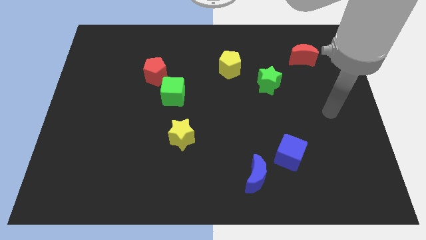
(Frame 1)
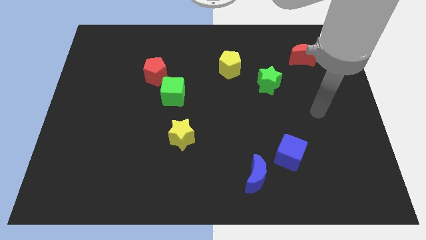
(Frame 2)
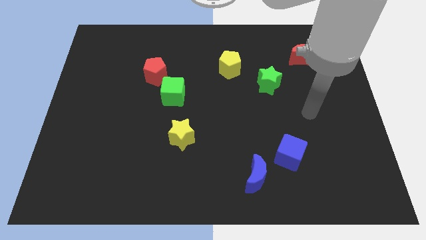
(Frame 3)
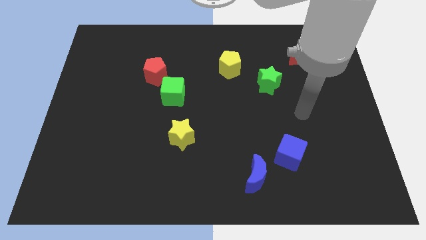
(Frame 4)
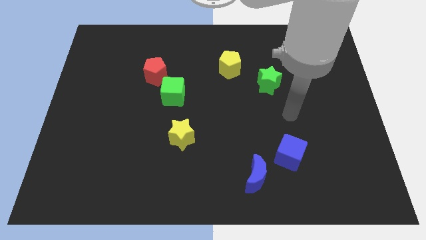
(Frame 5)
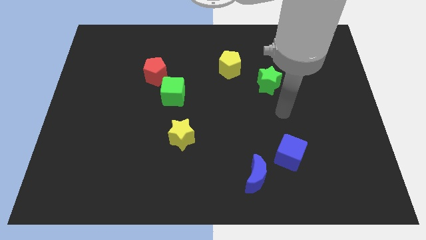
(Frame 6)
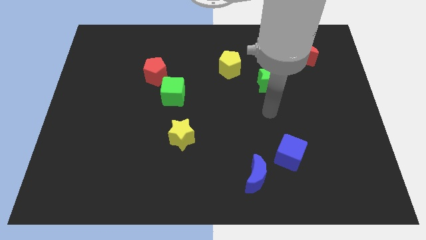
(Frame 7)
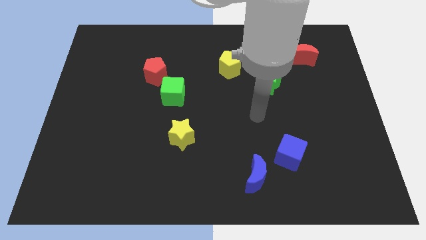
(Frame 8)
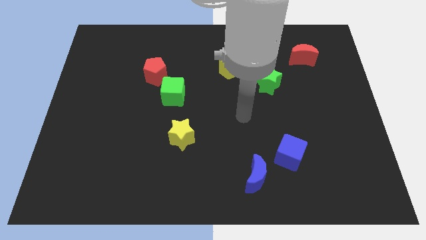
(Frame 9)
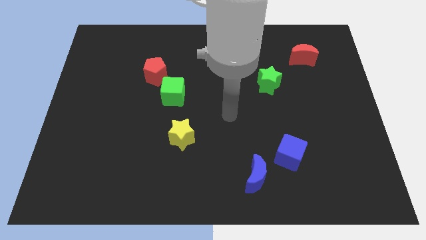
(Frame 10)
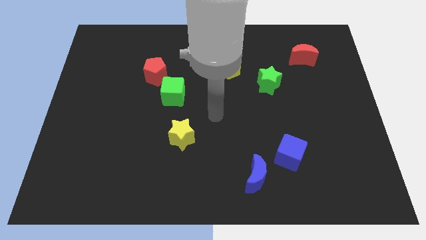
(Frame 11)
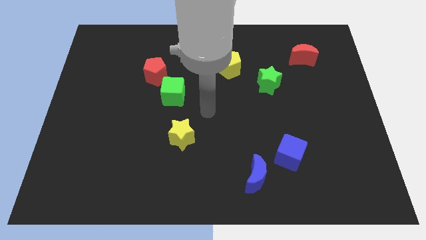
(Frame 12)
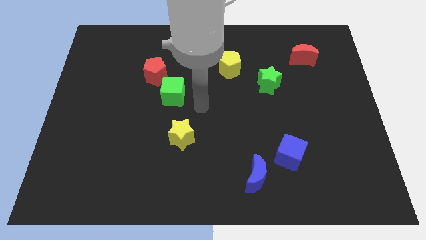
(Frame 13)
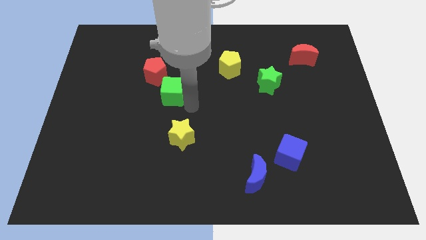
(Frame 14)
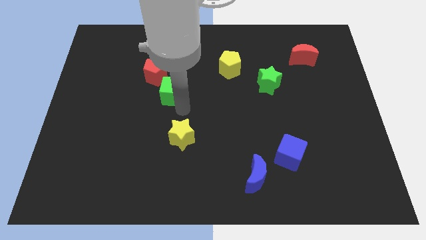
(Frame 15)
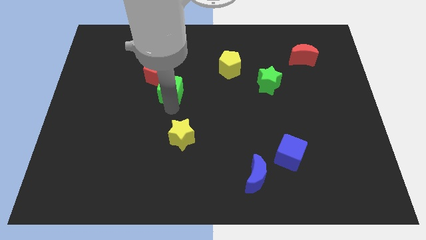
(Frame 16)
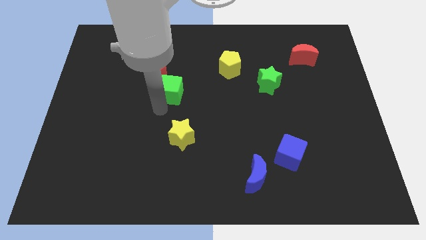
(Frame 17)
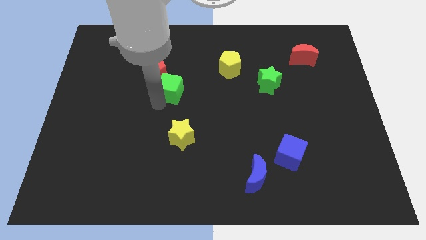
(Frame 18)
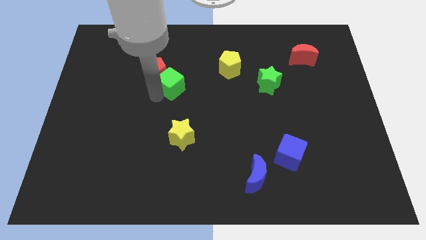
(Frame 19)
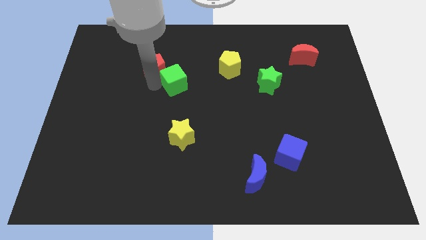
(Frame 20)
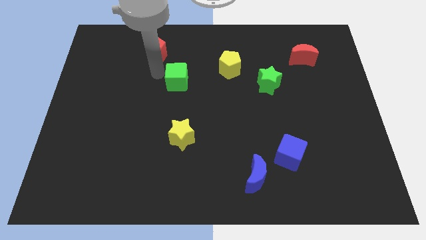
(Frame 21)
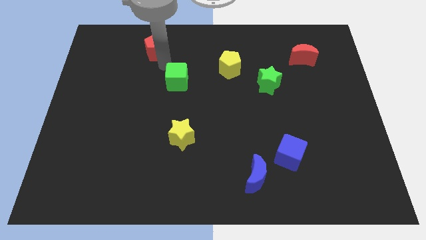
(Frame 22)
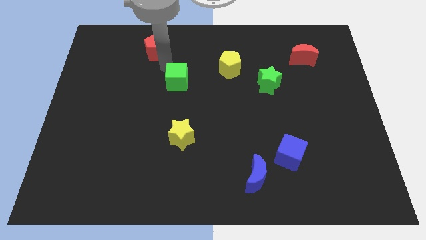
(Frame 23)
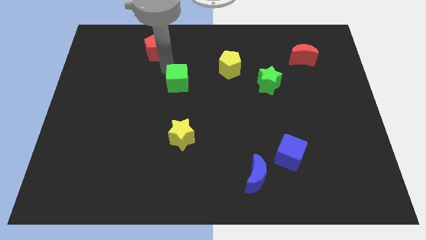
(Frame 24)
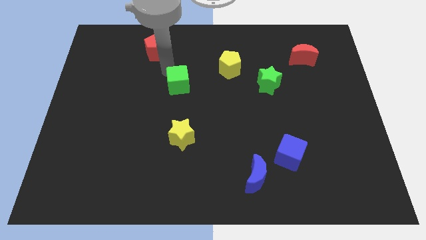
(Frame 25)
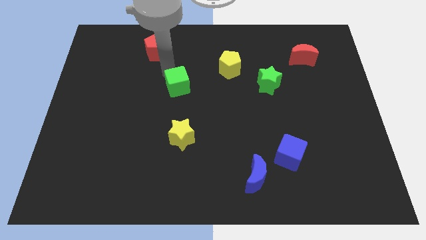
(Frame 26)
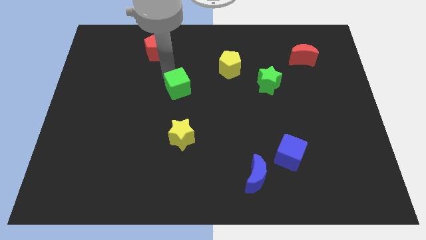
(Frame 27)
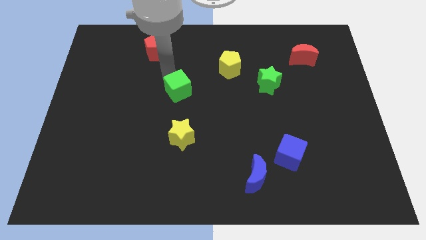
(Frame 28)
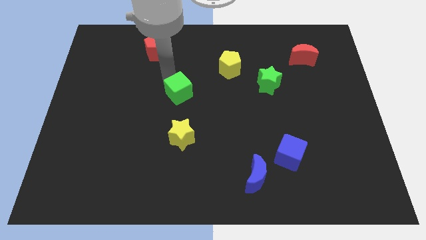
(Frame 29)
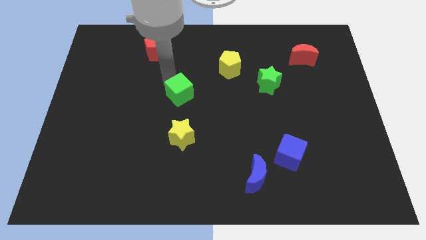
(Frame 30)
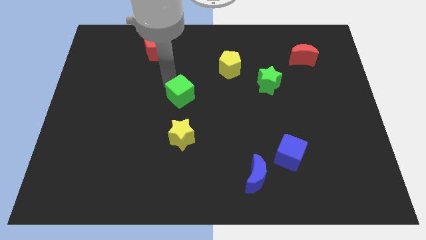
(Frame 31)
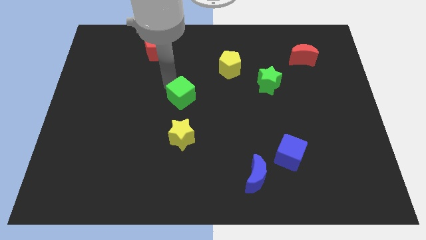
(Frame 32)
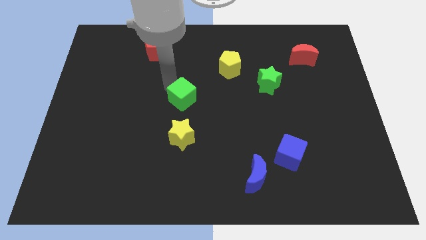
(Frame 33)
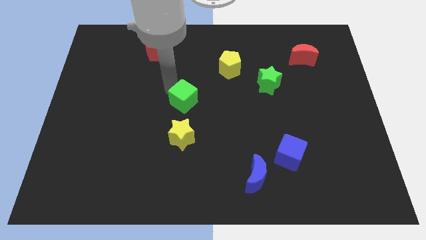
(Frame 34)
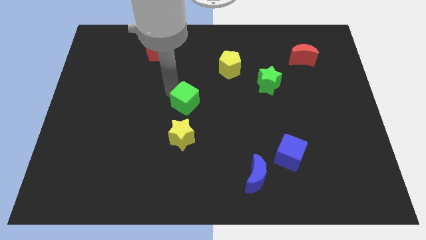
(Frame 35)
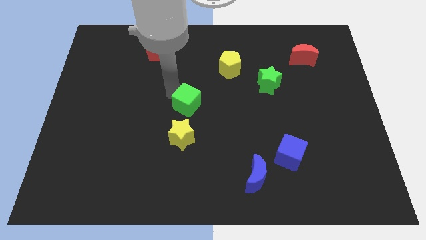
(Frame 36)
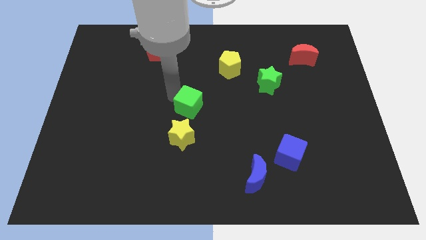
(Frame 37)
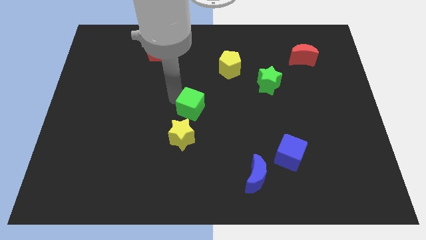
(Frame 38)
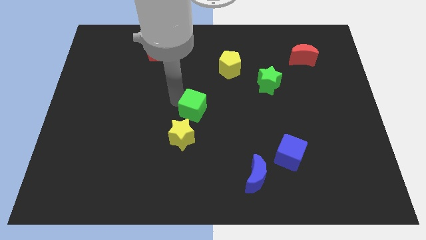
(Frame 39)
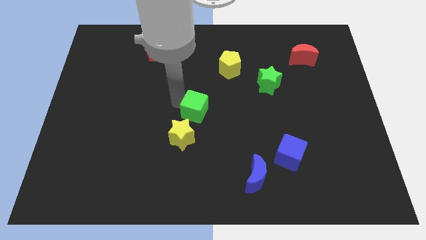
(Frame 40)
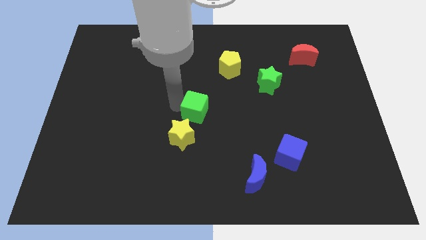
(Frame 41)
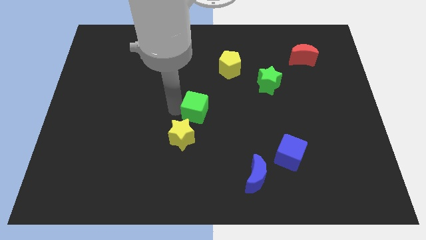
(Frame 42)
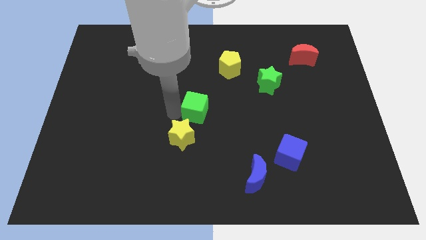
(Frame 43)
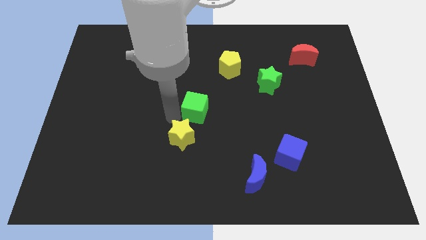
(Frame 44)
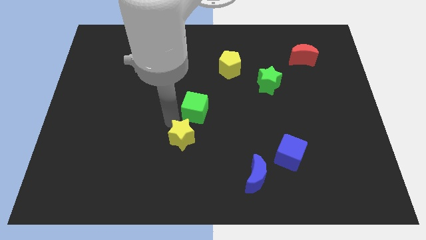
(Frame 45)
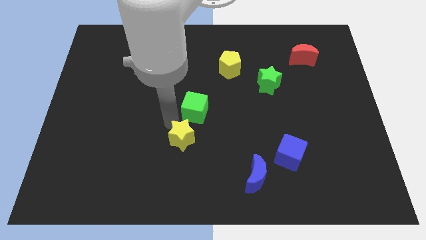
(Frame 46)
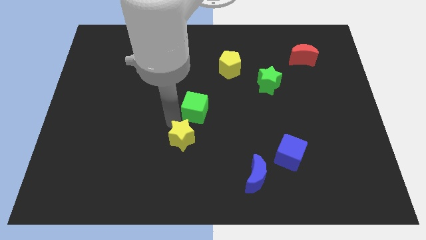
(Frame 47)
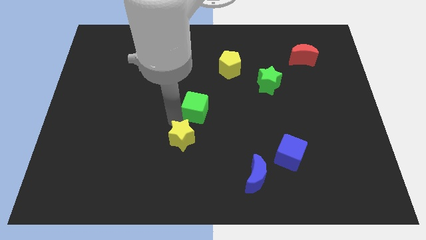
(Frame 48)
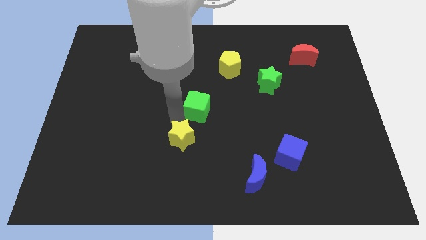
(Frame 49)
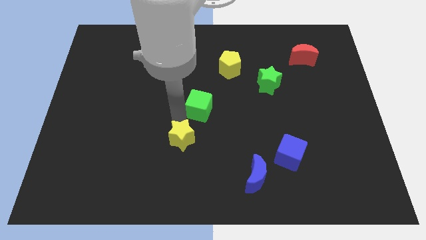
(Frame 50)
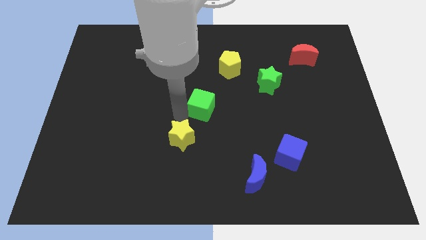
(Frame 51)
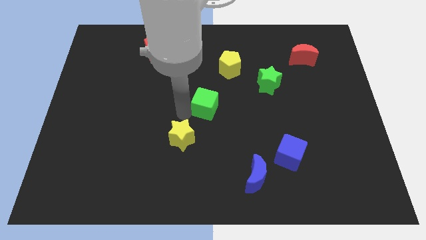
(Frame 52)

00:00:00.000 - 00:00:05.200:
slightly move the green cube to the right

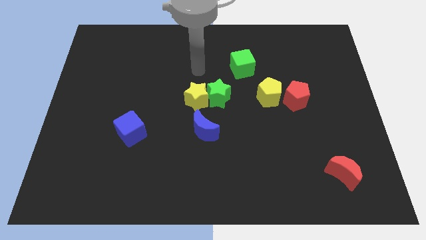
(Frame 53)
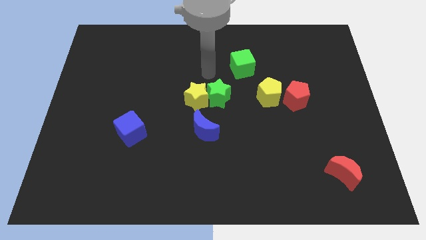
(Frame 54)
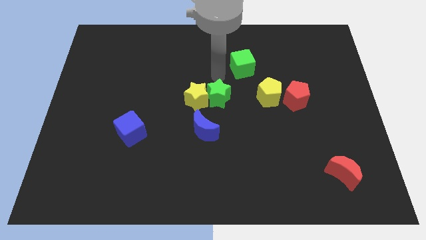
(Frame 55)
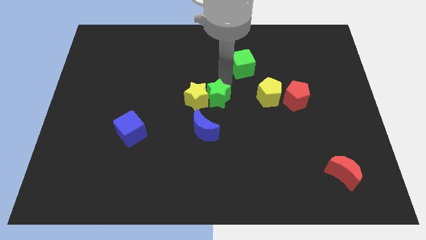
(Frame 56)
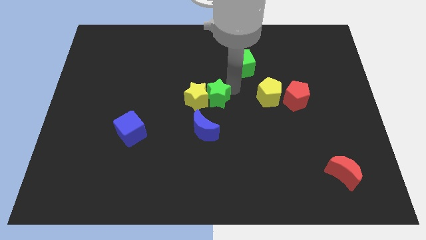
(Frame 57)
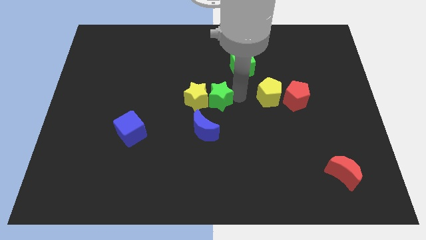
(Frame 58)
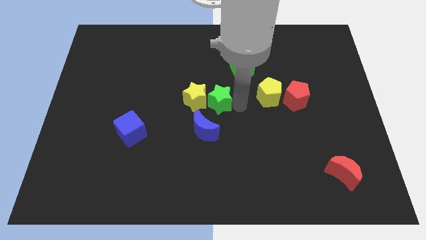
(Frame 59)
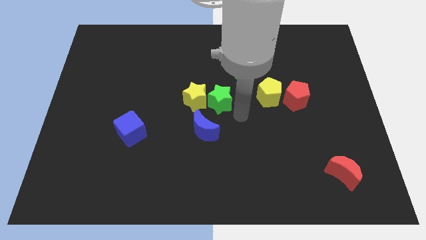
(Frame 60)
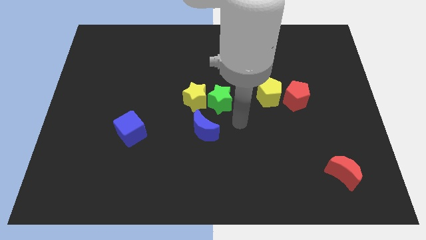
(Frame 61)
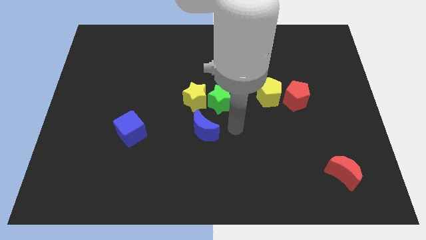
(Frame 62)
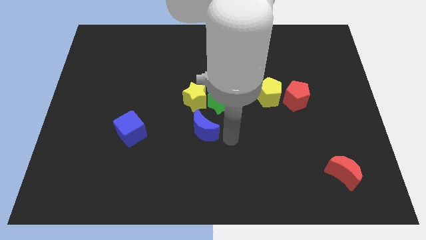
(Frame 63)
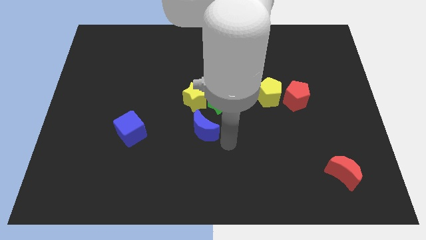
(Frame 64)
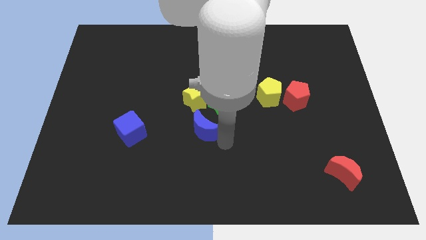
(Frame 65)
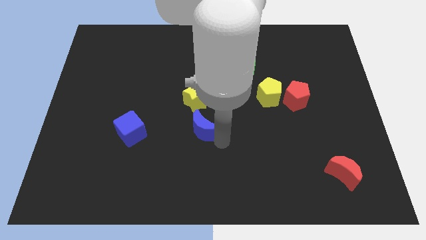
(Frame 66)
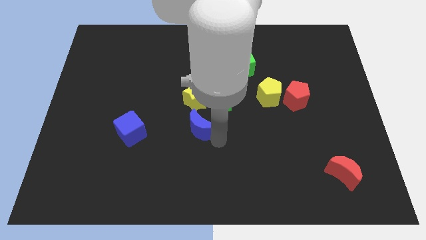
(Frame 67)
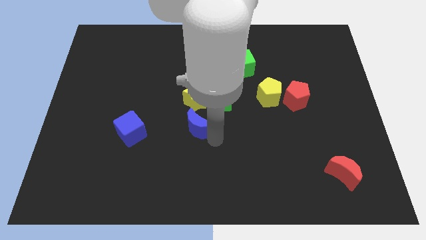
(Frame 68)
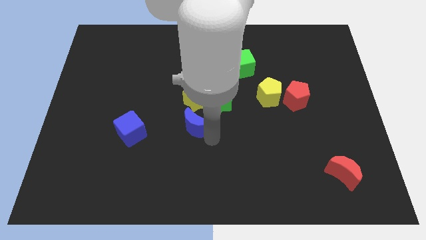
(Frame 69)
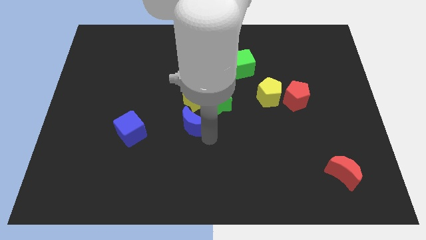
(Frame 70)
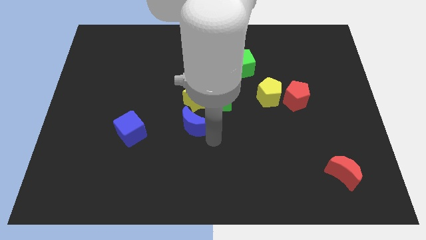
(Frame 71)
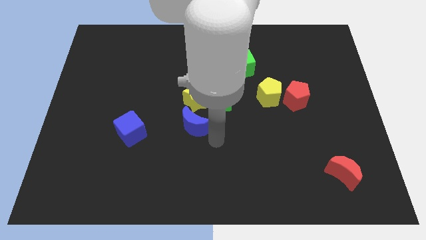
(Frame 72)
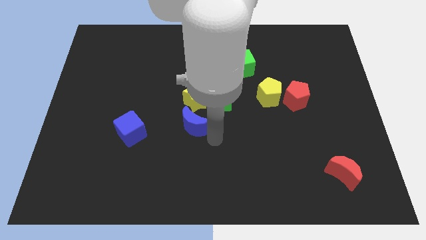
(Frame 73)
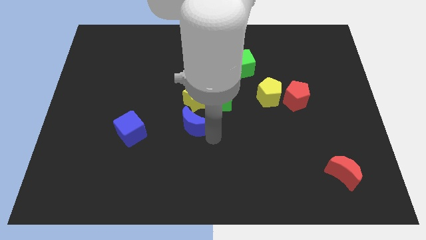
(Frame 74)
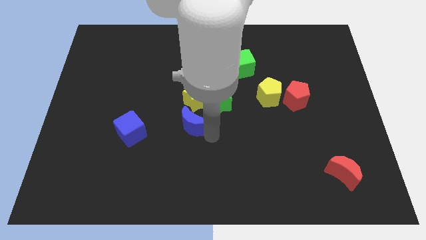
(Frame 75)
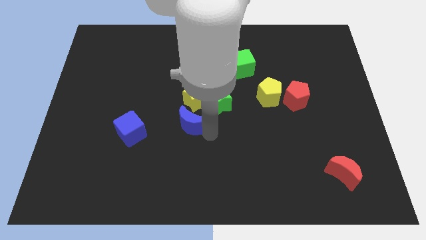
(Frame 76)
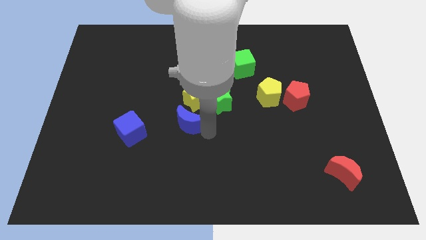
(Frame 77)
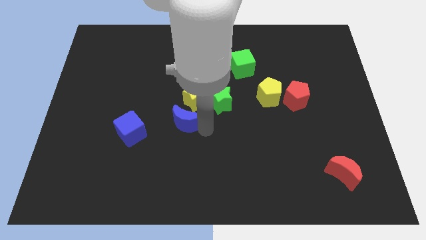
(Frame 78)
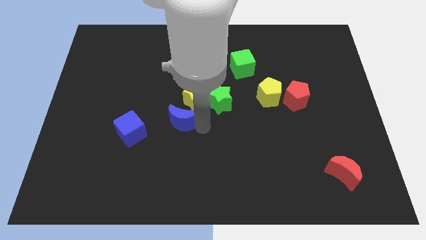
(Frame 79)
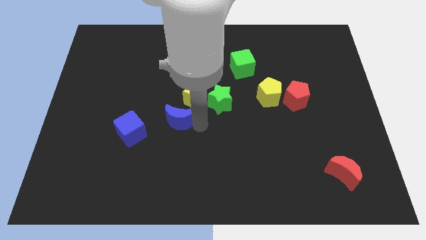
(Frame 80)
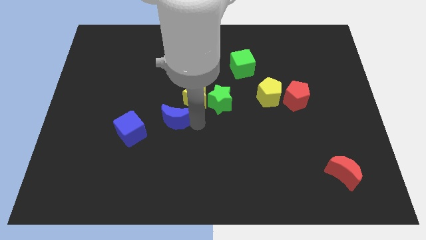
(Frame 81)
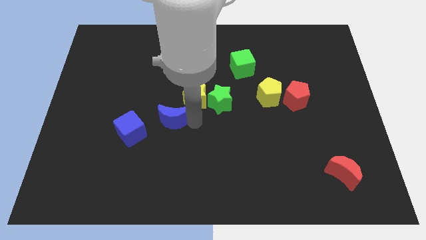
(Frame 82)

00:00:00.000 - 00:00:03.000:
slide the blue moon slightly diagonally up and left
